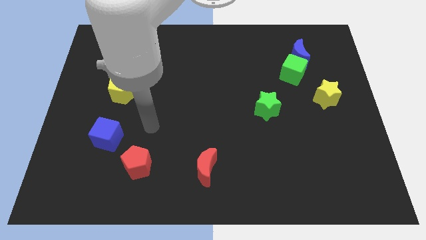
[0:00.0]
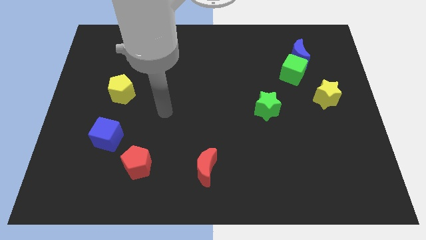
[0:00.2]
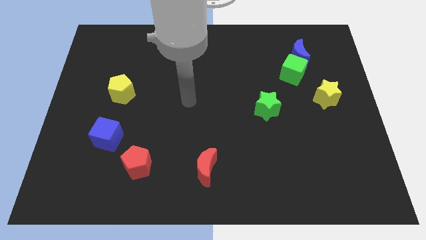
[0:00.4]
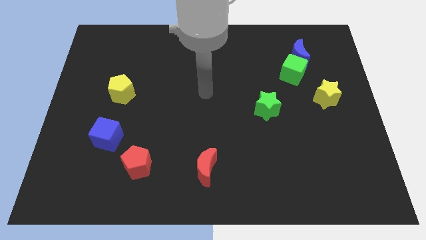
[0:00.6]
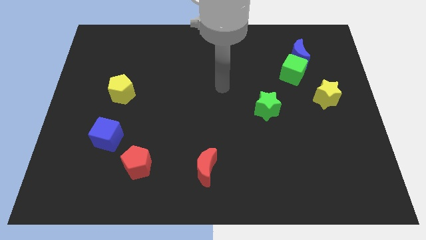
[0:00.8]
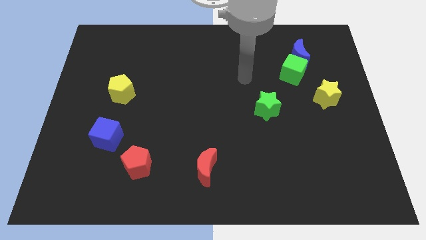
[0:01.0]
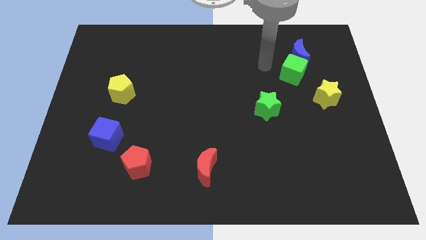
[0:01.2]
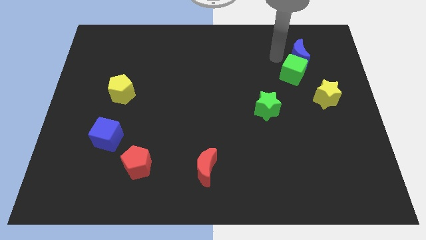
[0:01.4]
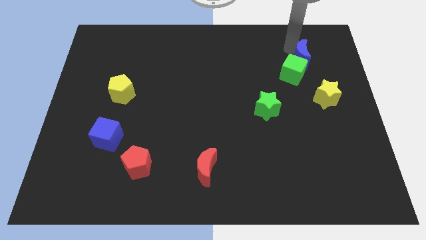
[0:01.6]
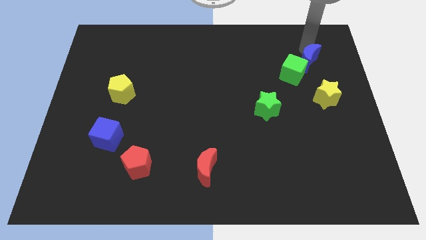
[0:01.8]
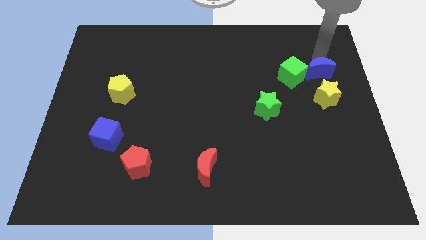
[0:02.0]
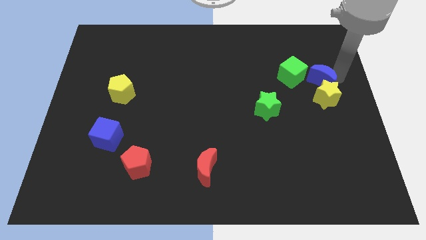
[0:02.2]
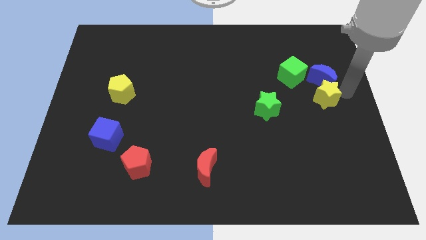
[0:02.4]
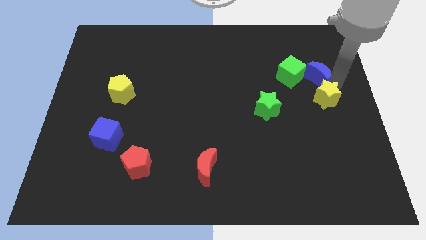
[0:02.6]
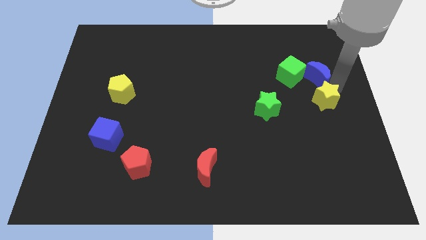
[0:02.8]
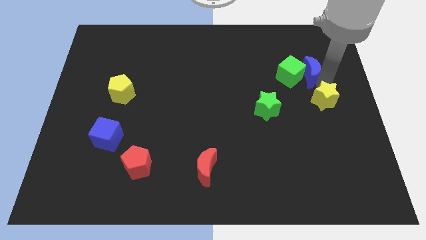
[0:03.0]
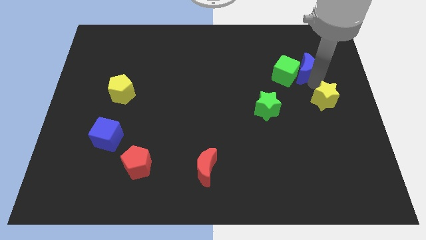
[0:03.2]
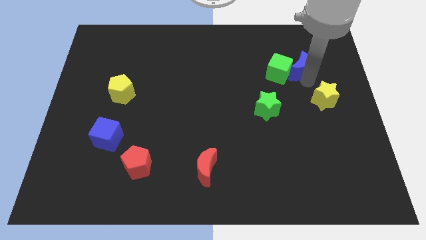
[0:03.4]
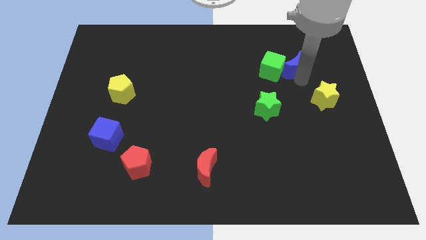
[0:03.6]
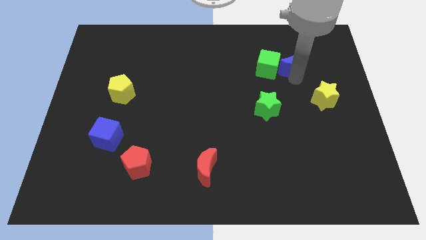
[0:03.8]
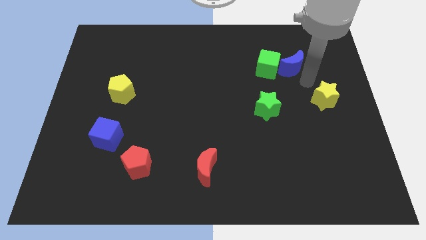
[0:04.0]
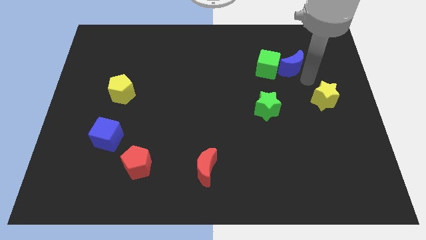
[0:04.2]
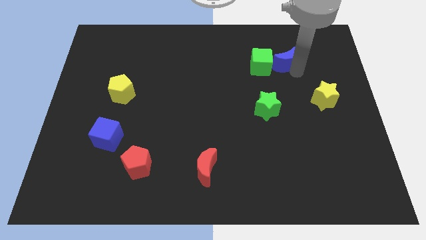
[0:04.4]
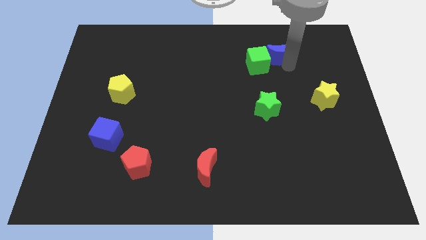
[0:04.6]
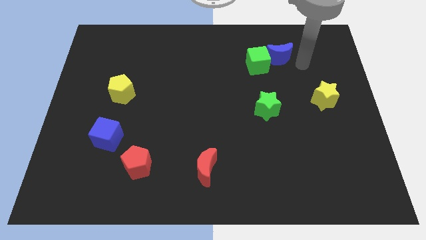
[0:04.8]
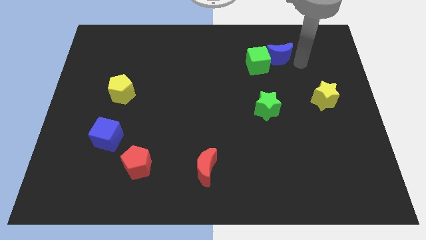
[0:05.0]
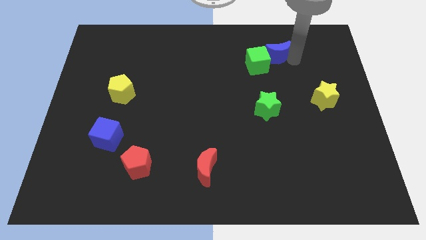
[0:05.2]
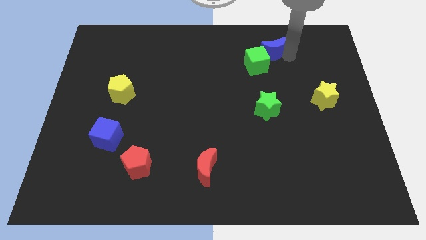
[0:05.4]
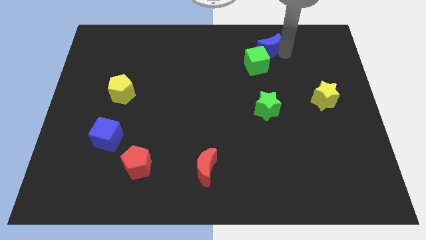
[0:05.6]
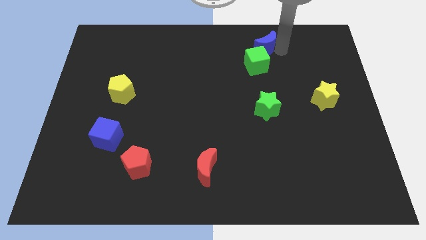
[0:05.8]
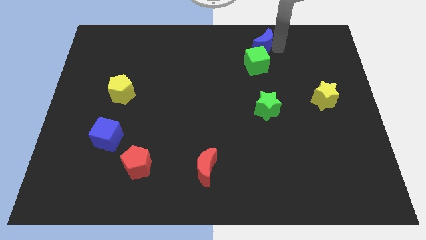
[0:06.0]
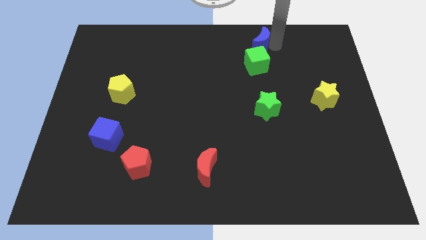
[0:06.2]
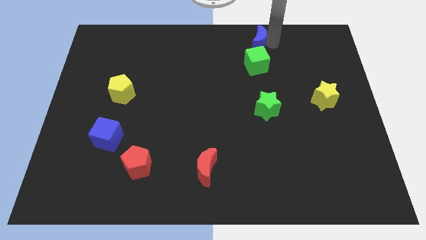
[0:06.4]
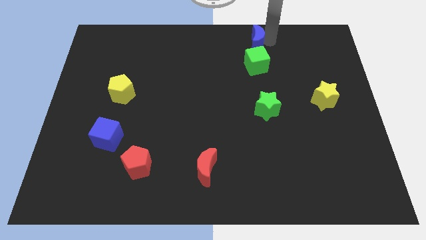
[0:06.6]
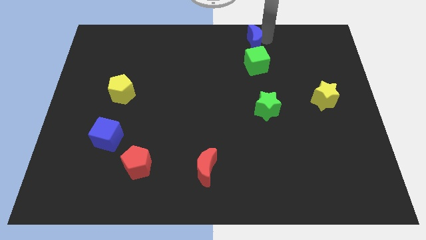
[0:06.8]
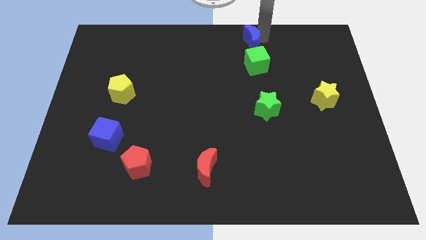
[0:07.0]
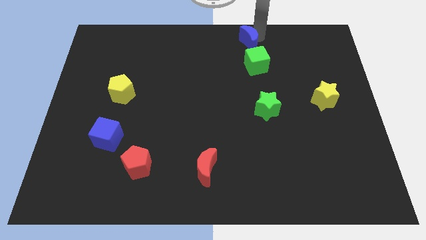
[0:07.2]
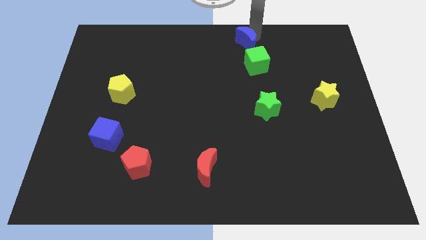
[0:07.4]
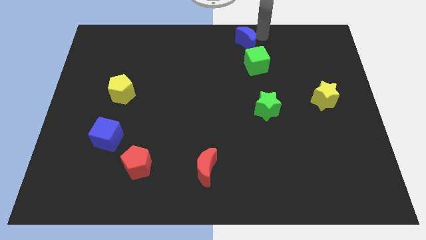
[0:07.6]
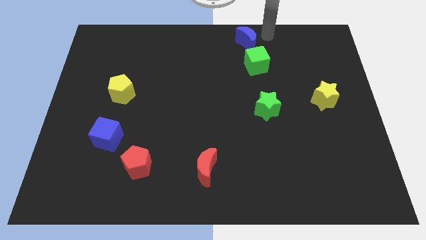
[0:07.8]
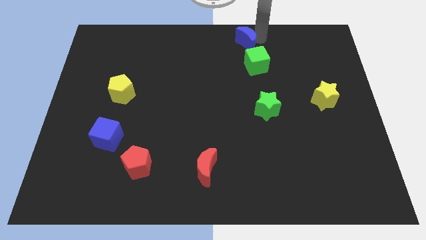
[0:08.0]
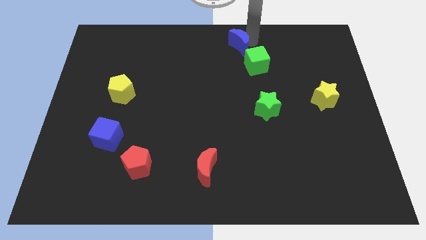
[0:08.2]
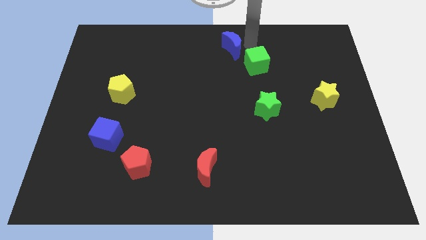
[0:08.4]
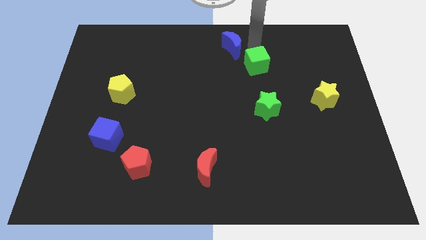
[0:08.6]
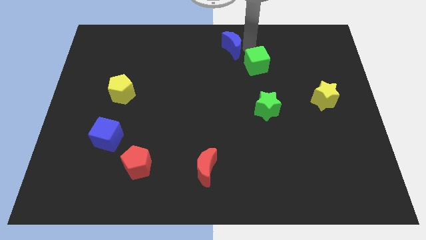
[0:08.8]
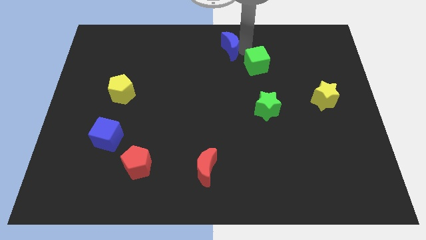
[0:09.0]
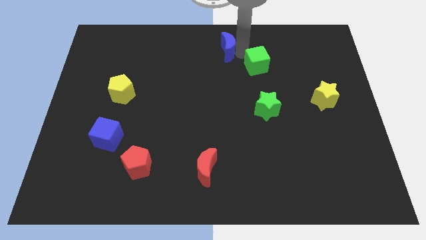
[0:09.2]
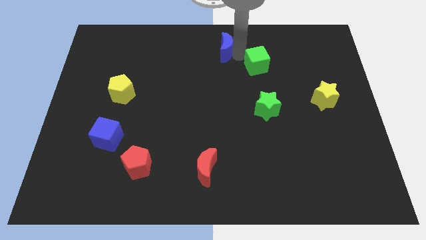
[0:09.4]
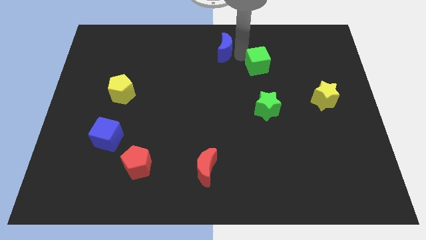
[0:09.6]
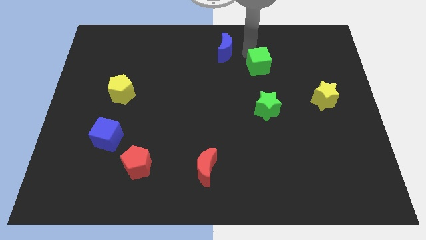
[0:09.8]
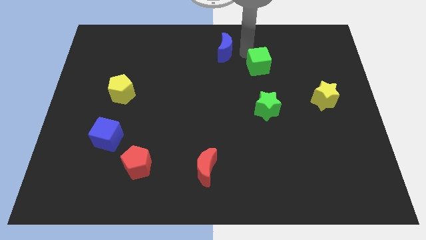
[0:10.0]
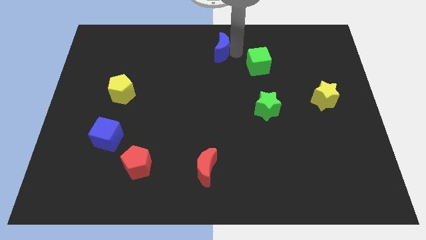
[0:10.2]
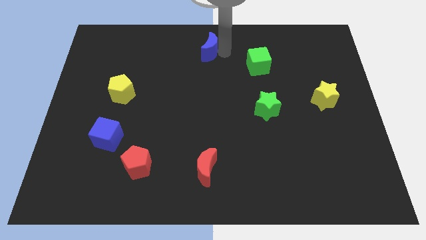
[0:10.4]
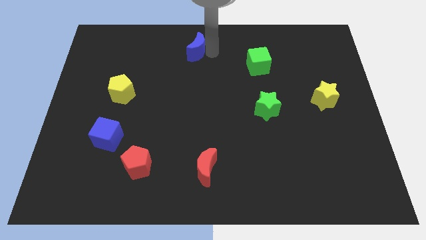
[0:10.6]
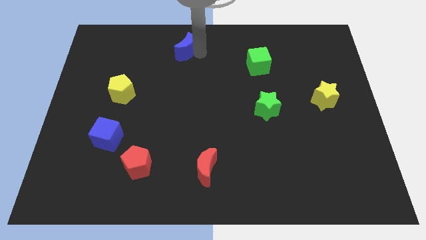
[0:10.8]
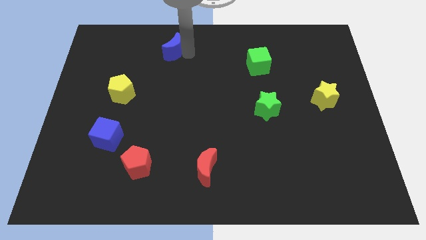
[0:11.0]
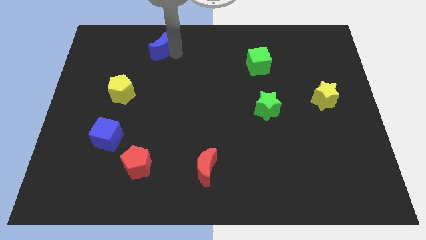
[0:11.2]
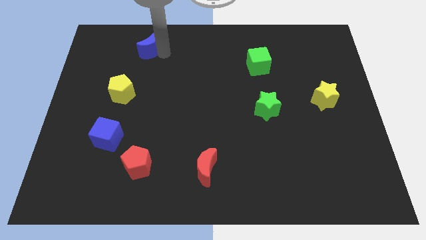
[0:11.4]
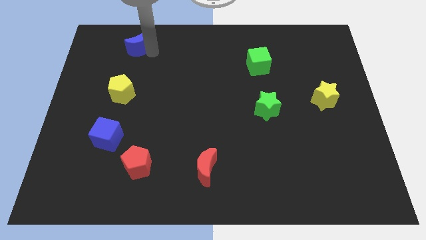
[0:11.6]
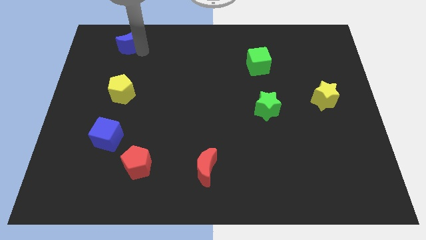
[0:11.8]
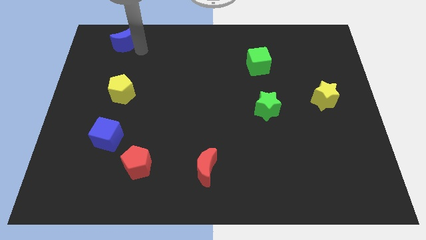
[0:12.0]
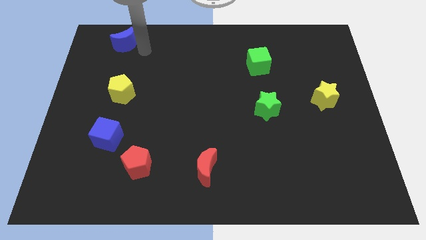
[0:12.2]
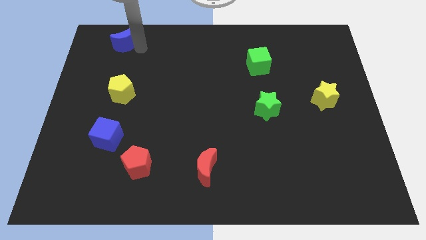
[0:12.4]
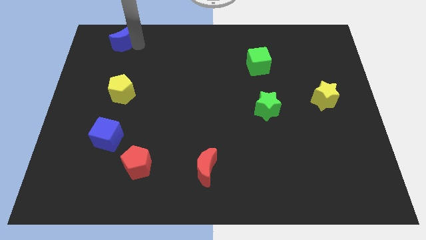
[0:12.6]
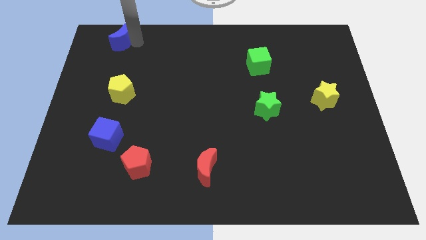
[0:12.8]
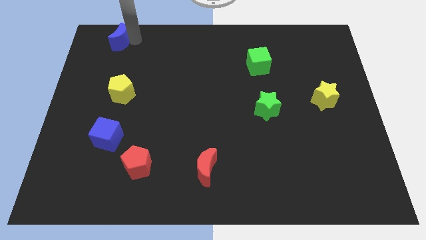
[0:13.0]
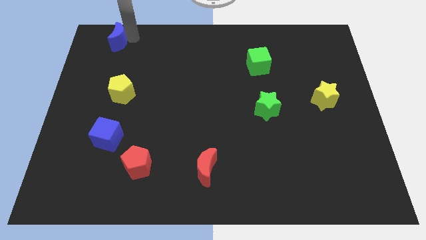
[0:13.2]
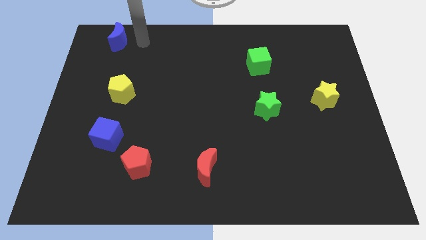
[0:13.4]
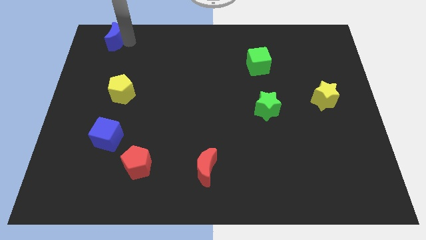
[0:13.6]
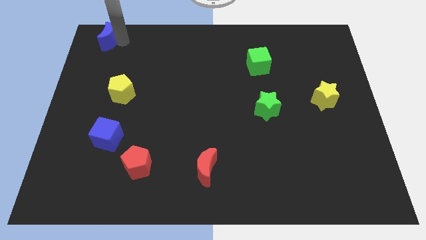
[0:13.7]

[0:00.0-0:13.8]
push the blue moon to the top left corner

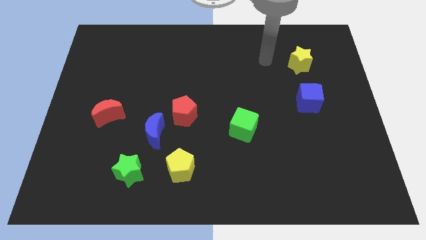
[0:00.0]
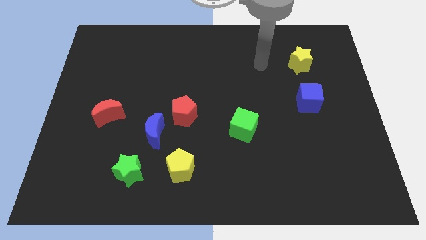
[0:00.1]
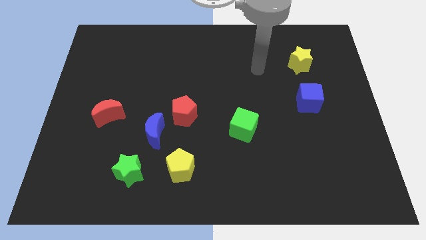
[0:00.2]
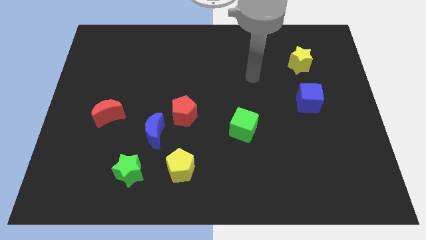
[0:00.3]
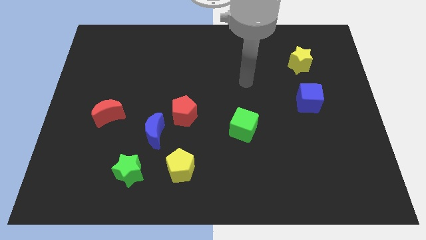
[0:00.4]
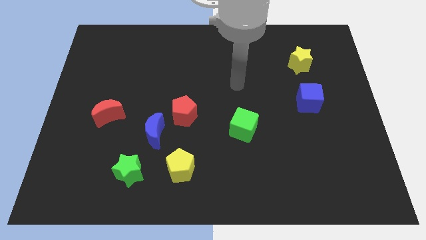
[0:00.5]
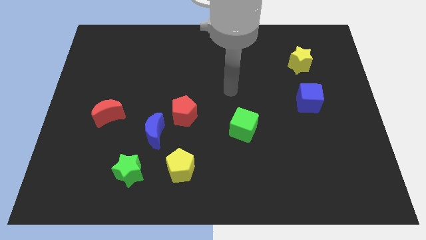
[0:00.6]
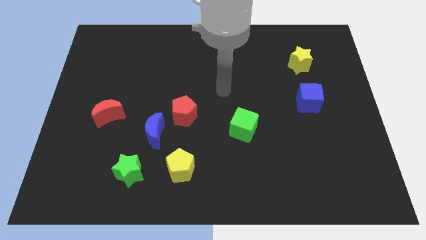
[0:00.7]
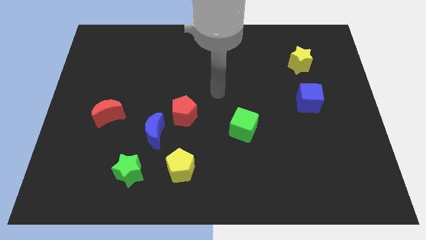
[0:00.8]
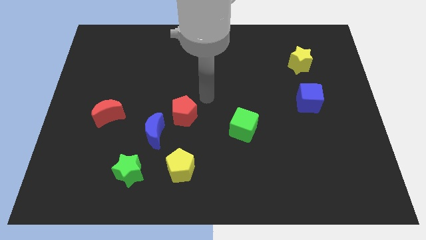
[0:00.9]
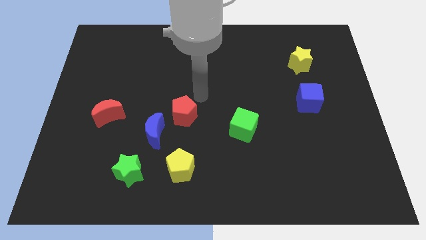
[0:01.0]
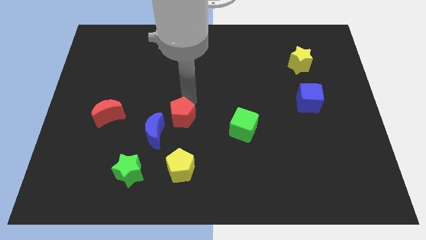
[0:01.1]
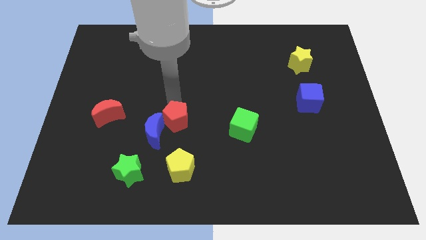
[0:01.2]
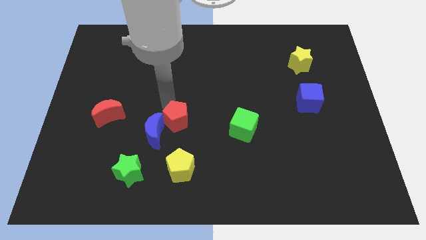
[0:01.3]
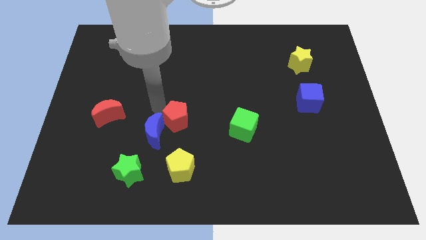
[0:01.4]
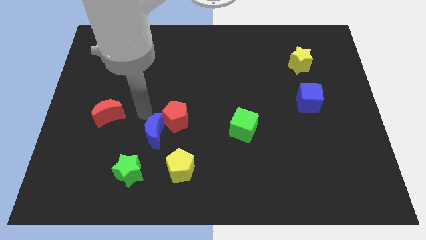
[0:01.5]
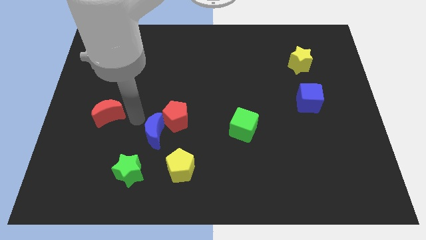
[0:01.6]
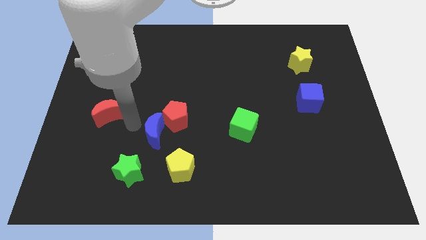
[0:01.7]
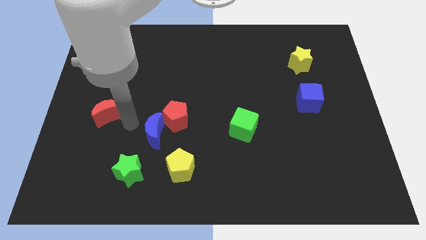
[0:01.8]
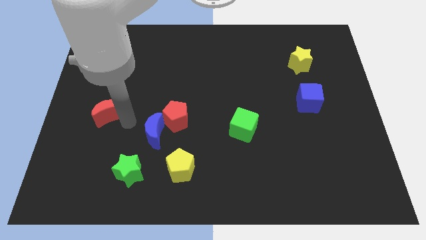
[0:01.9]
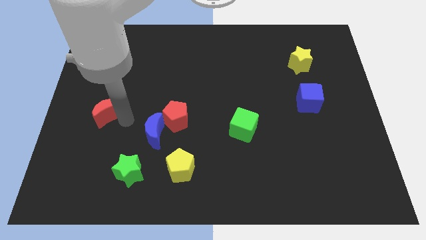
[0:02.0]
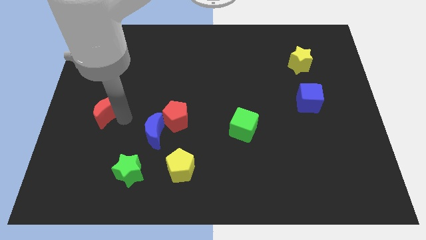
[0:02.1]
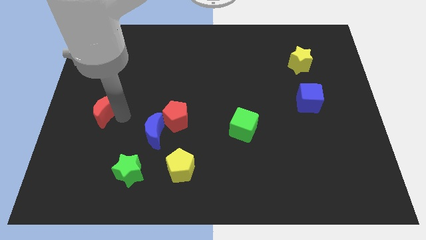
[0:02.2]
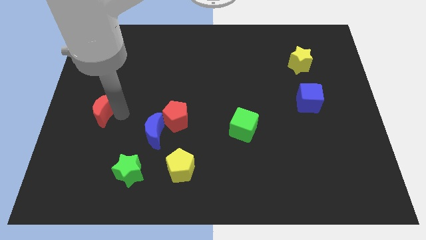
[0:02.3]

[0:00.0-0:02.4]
put the red moon to the center left
